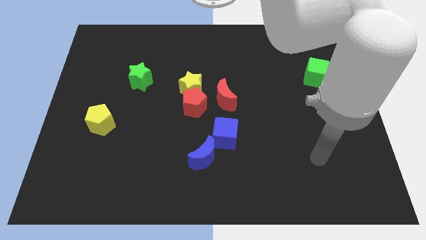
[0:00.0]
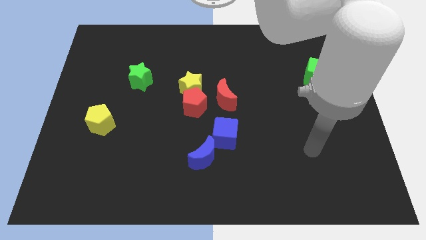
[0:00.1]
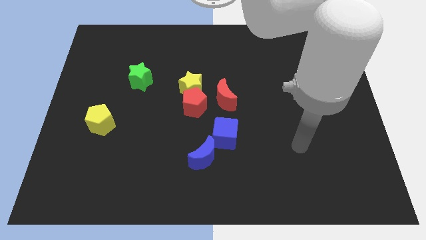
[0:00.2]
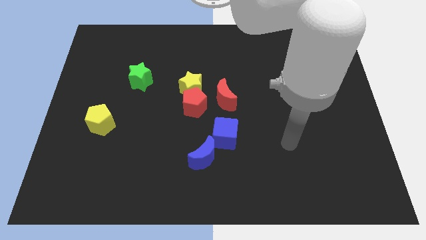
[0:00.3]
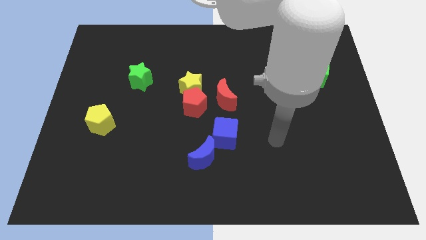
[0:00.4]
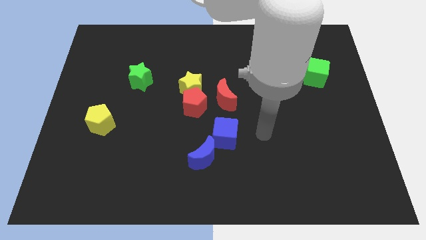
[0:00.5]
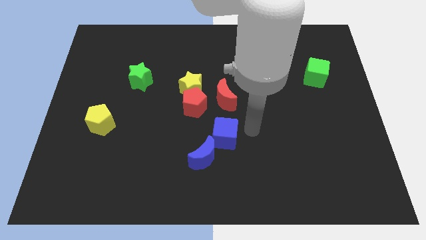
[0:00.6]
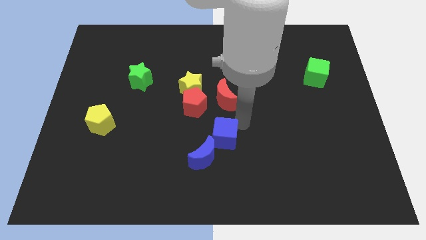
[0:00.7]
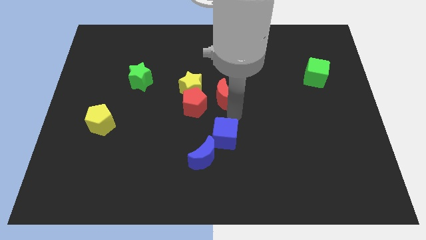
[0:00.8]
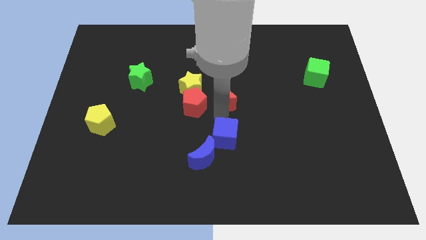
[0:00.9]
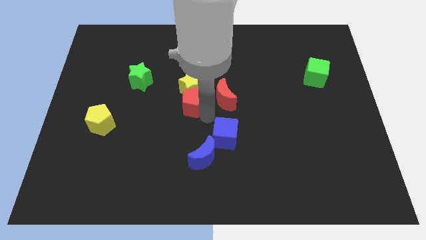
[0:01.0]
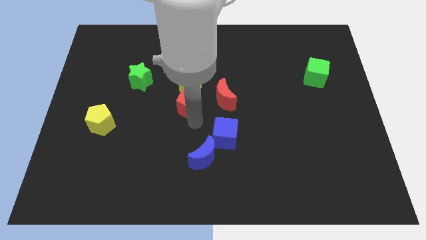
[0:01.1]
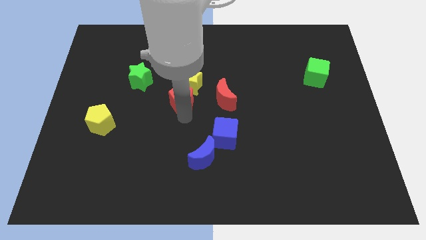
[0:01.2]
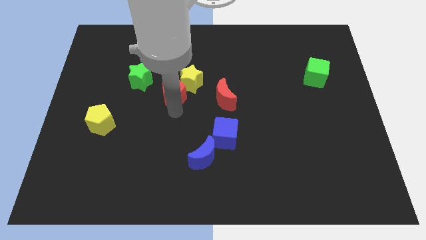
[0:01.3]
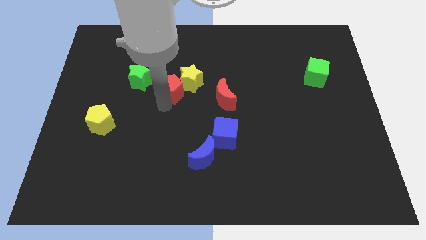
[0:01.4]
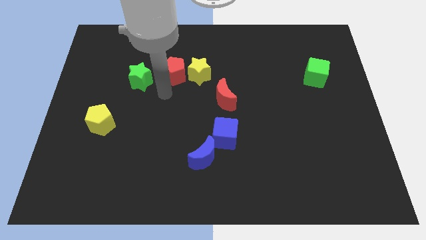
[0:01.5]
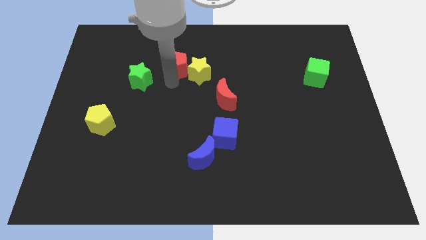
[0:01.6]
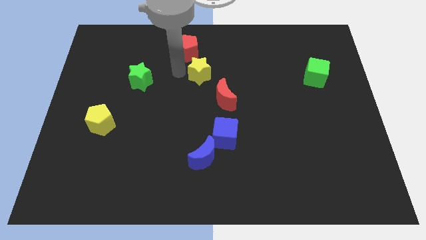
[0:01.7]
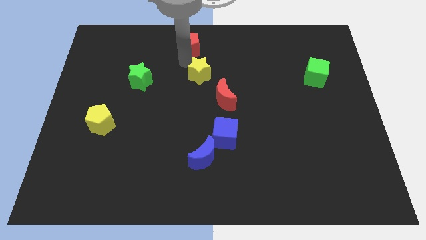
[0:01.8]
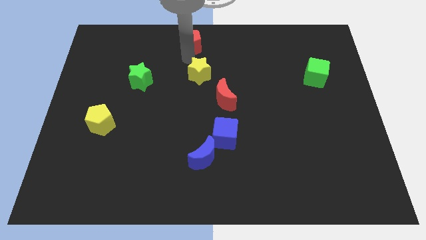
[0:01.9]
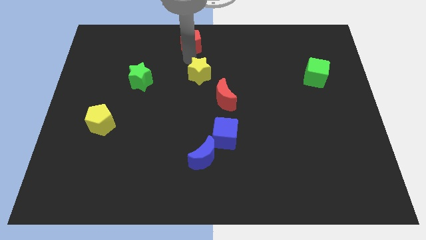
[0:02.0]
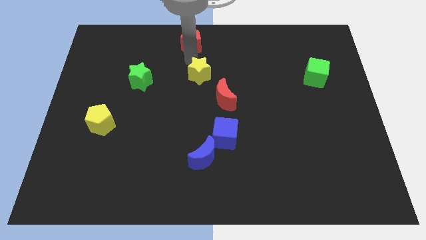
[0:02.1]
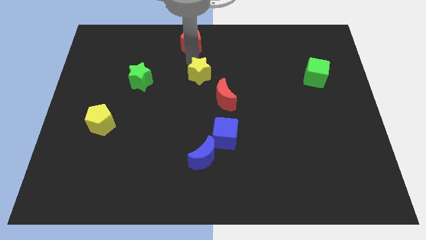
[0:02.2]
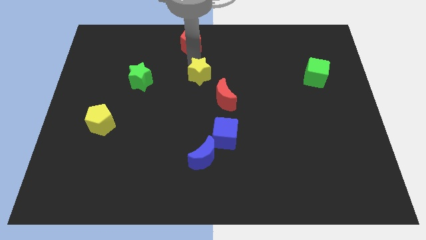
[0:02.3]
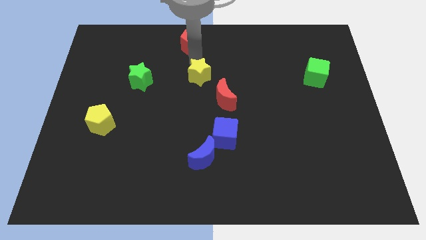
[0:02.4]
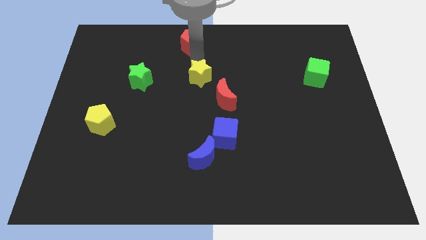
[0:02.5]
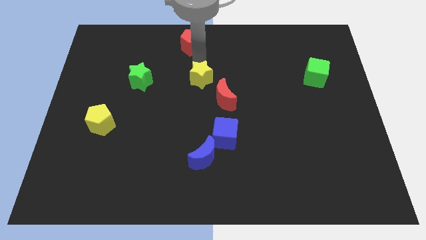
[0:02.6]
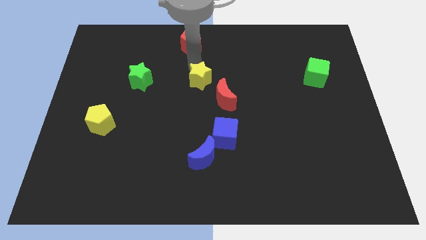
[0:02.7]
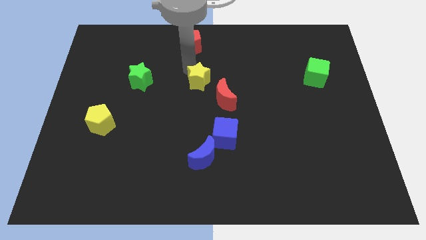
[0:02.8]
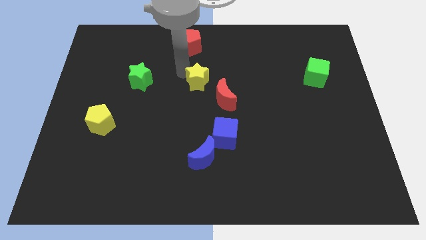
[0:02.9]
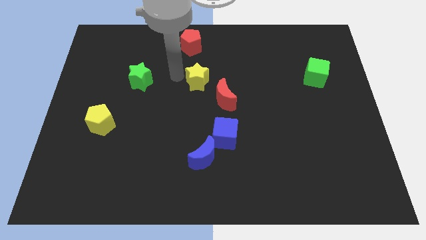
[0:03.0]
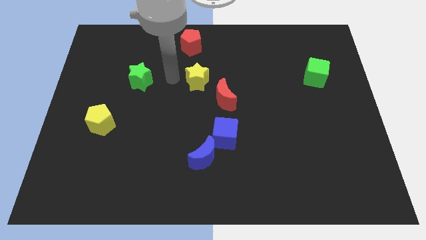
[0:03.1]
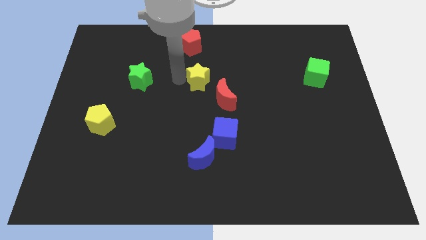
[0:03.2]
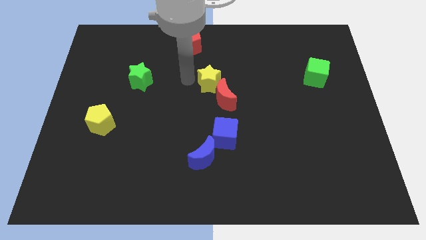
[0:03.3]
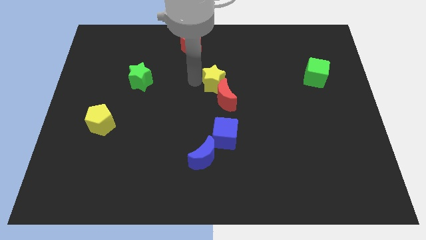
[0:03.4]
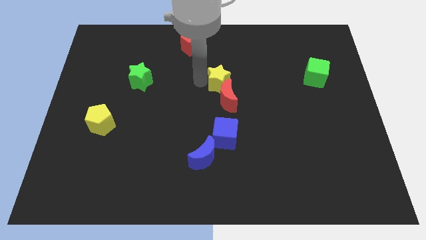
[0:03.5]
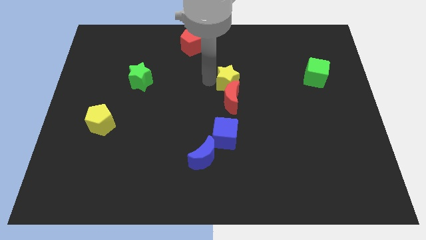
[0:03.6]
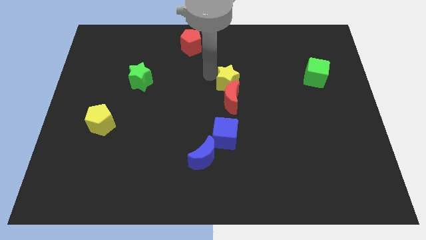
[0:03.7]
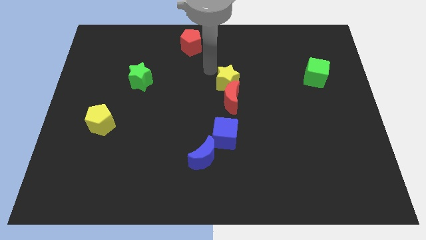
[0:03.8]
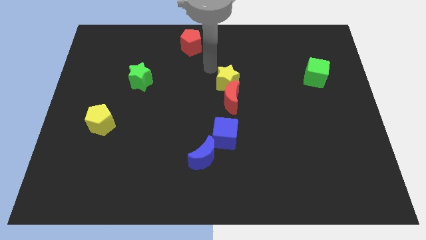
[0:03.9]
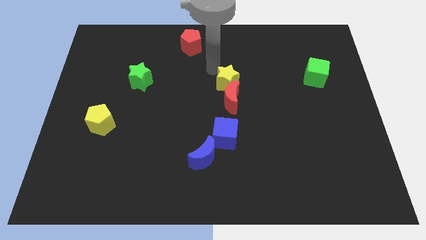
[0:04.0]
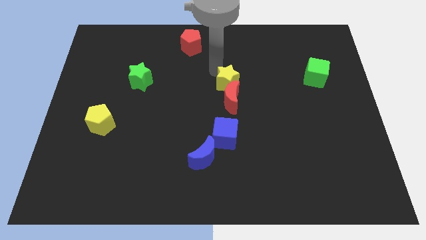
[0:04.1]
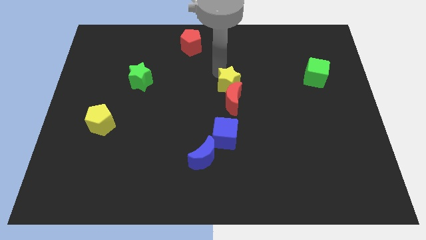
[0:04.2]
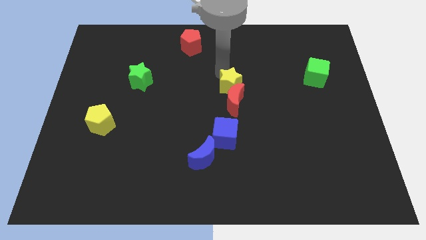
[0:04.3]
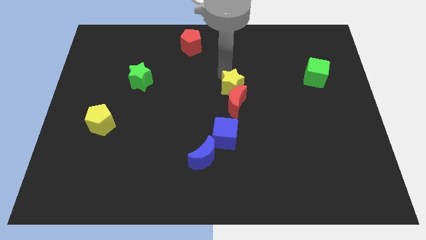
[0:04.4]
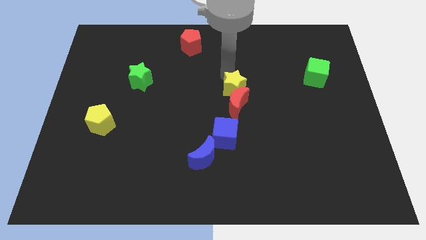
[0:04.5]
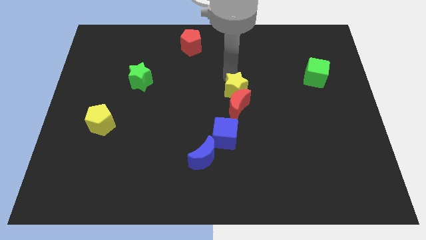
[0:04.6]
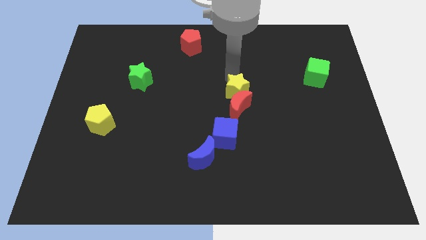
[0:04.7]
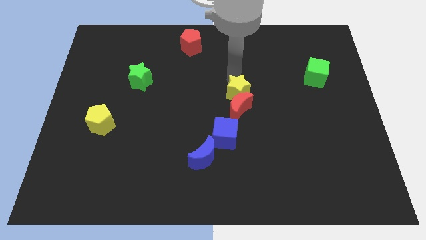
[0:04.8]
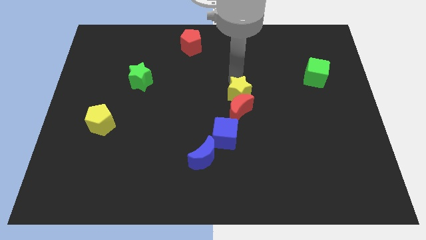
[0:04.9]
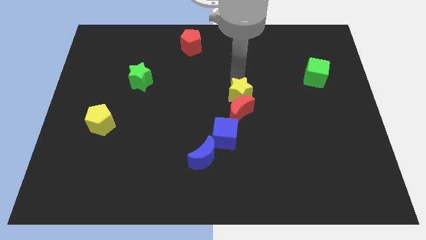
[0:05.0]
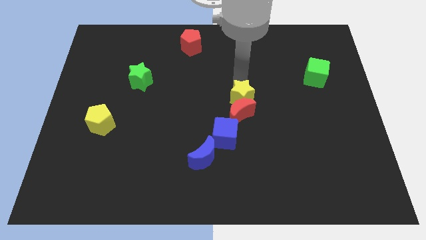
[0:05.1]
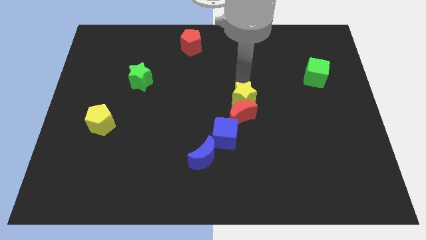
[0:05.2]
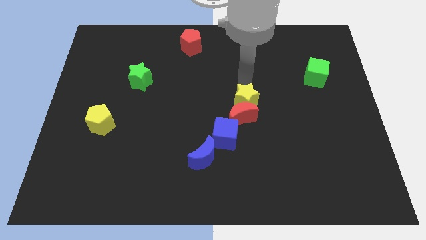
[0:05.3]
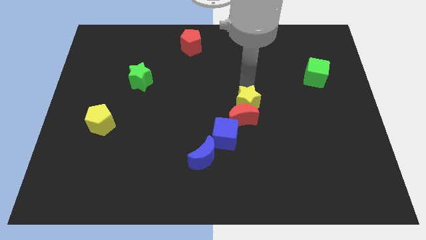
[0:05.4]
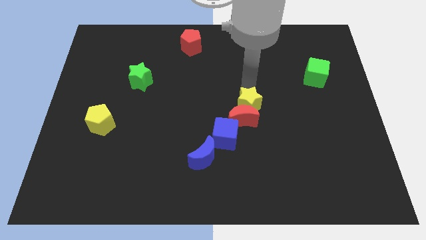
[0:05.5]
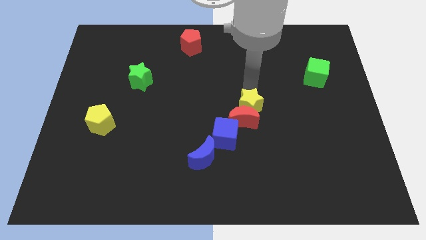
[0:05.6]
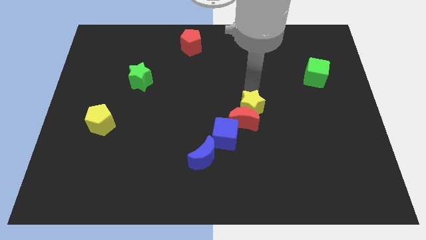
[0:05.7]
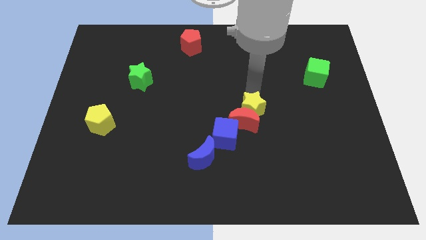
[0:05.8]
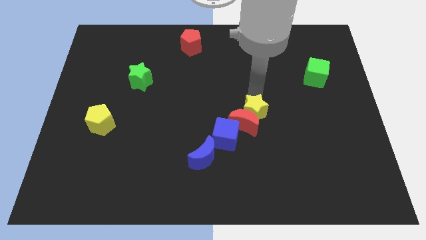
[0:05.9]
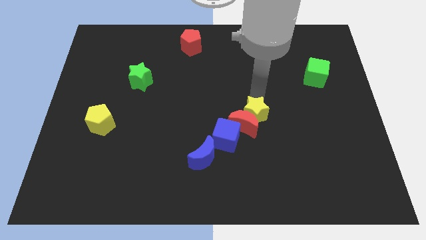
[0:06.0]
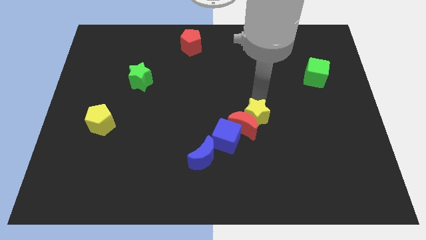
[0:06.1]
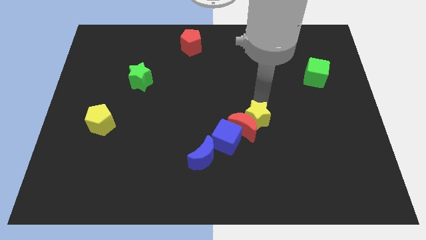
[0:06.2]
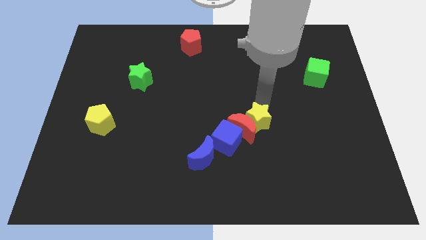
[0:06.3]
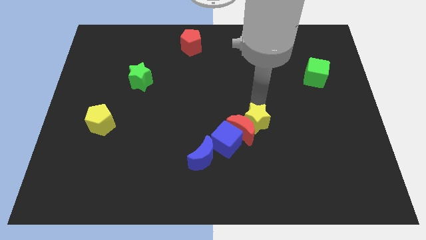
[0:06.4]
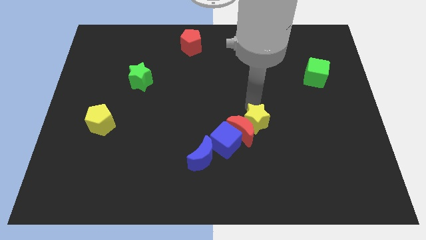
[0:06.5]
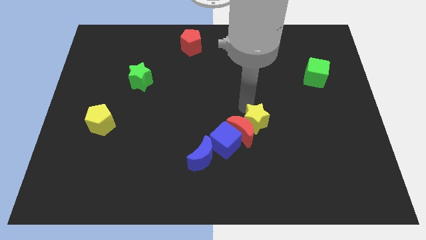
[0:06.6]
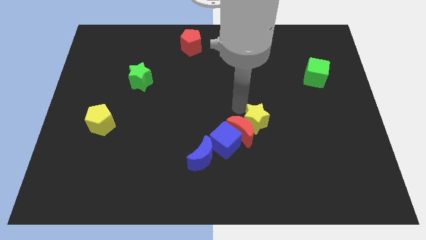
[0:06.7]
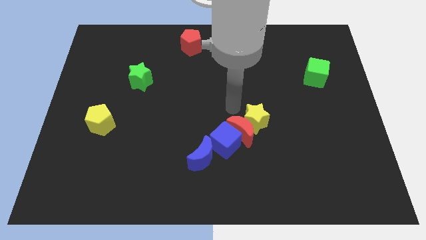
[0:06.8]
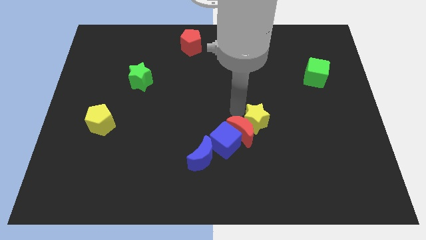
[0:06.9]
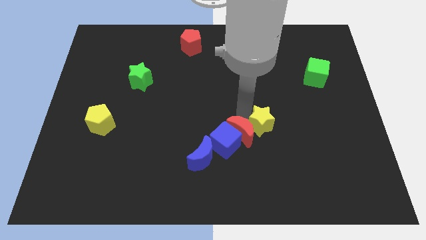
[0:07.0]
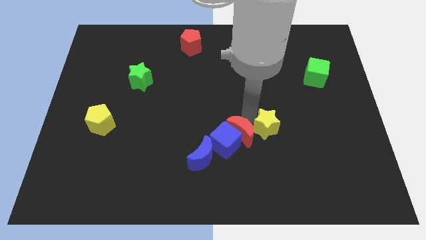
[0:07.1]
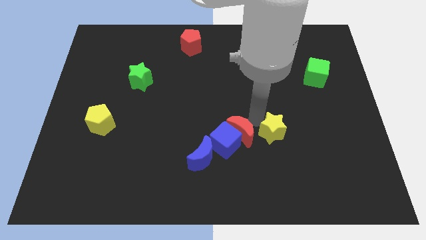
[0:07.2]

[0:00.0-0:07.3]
push the yellow star diagonally down and right

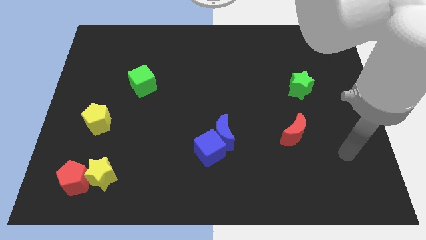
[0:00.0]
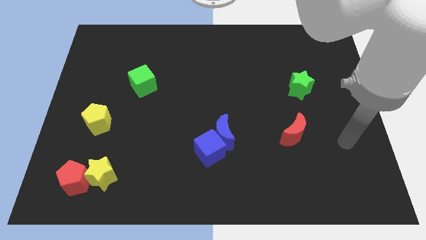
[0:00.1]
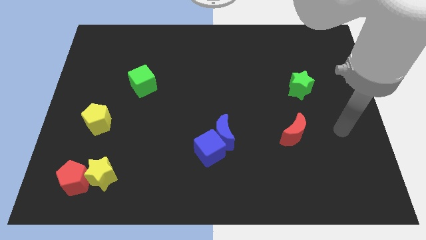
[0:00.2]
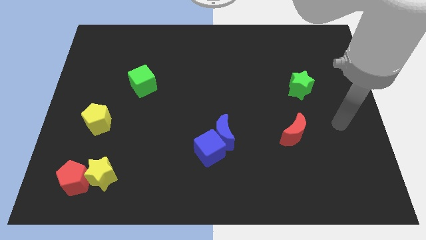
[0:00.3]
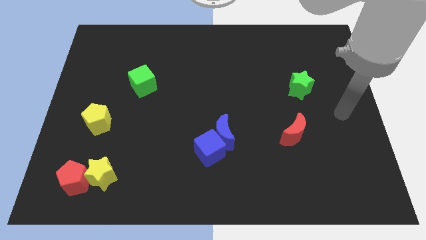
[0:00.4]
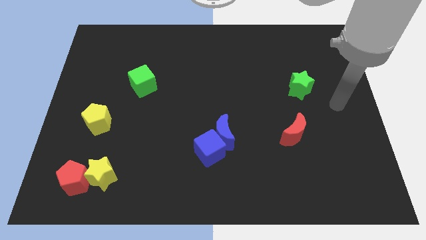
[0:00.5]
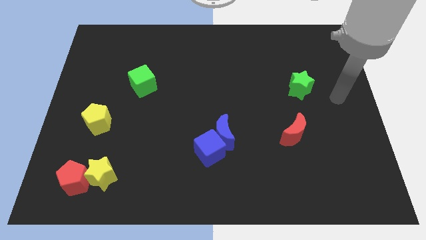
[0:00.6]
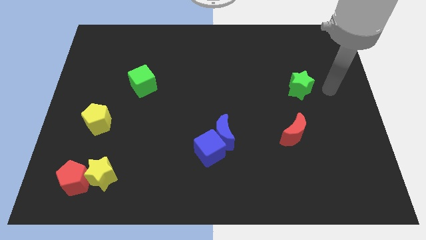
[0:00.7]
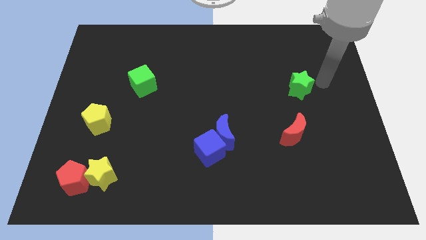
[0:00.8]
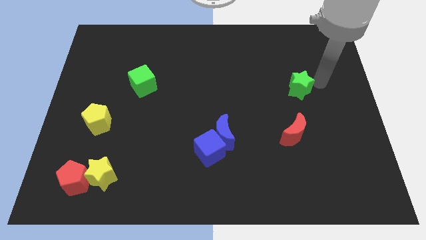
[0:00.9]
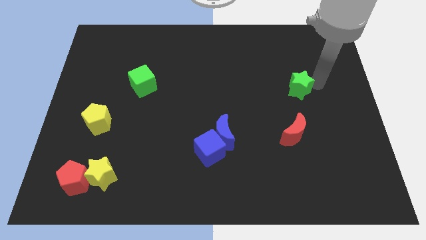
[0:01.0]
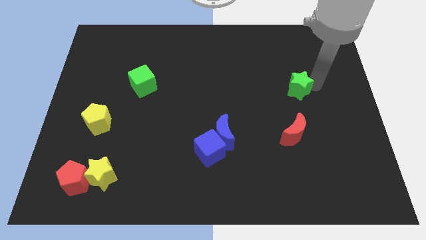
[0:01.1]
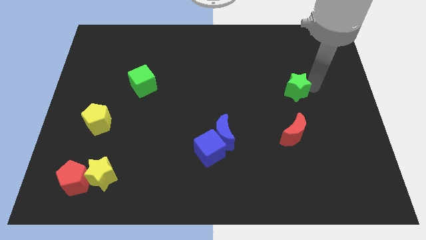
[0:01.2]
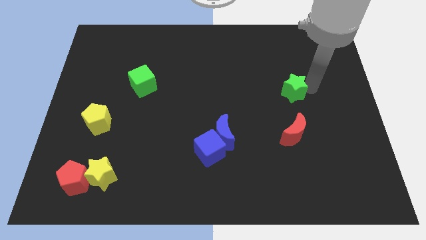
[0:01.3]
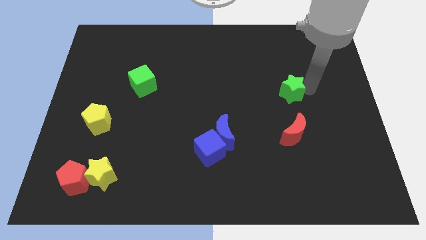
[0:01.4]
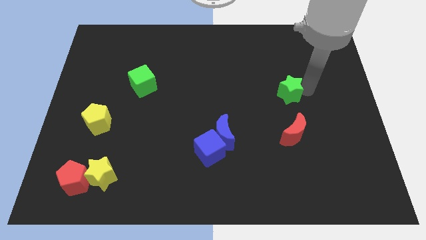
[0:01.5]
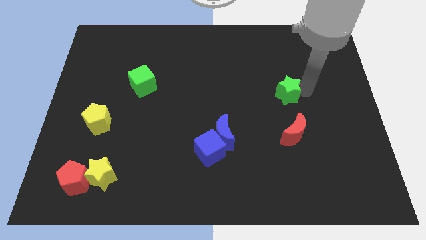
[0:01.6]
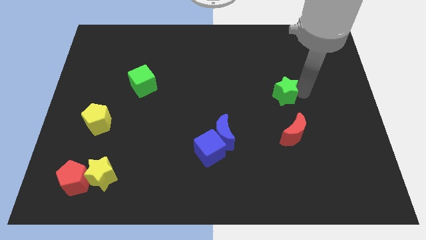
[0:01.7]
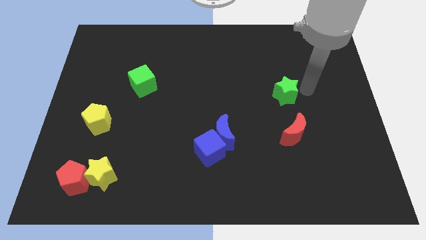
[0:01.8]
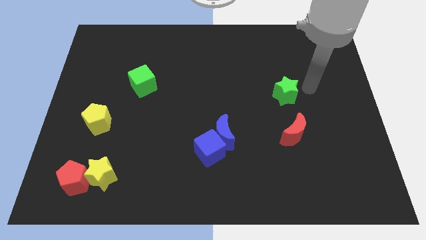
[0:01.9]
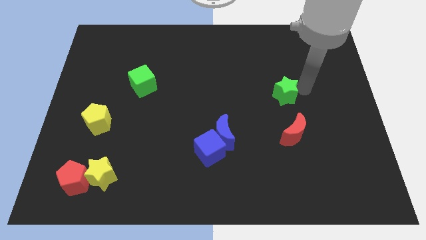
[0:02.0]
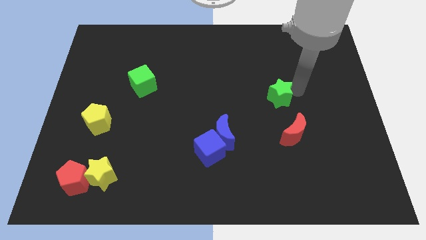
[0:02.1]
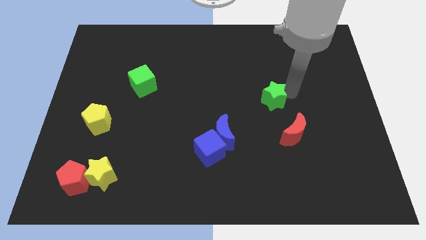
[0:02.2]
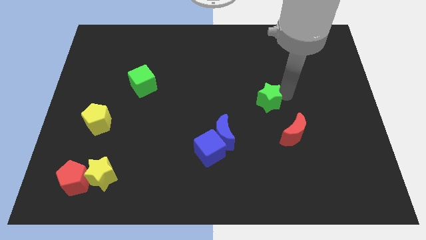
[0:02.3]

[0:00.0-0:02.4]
slide the green star slightly left
